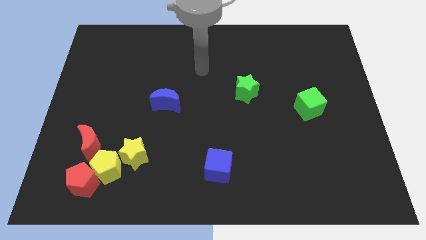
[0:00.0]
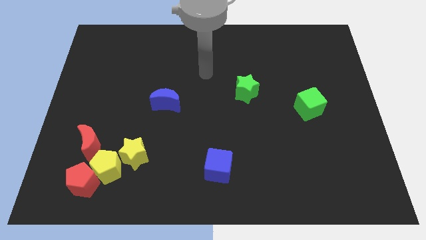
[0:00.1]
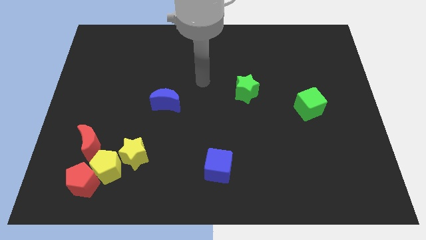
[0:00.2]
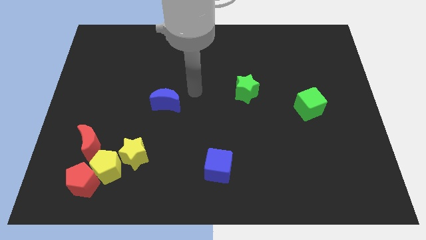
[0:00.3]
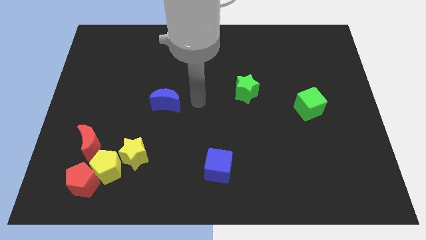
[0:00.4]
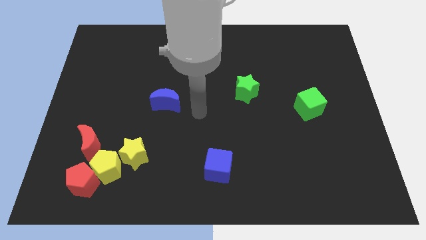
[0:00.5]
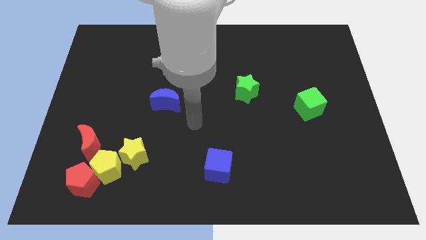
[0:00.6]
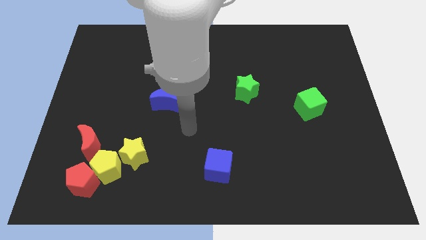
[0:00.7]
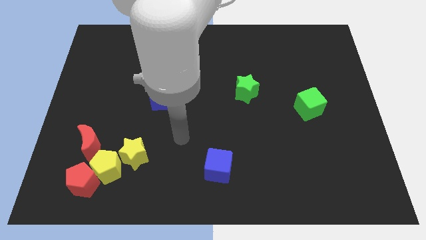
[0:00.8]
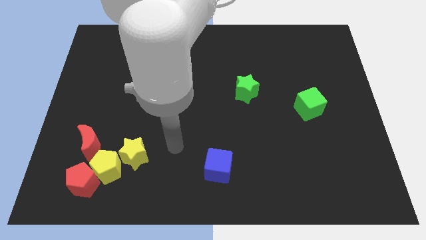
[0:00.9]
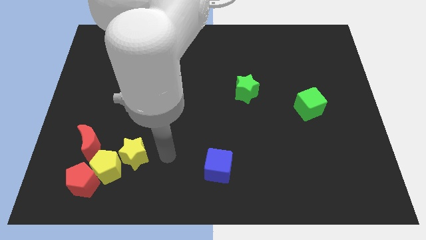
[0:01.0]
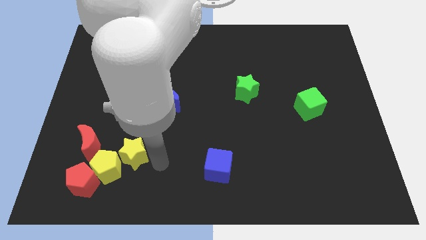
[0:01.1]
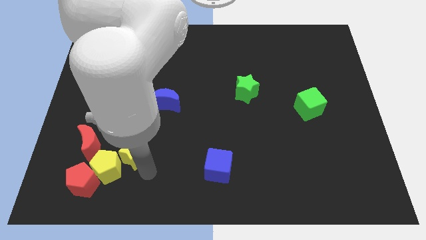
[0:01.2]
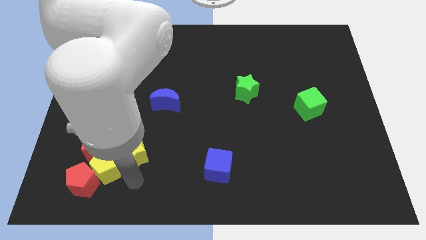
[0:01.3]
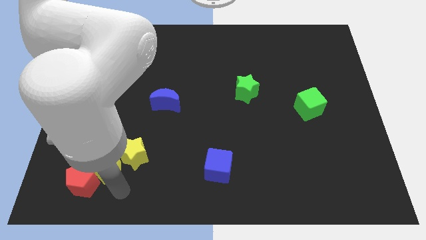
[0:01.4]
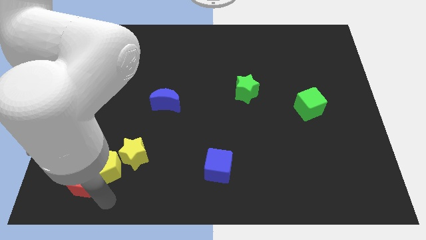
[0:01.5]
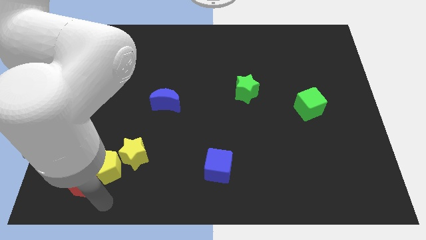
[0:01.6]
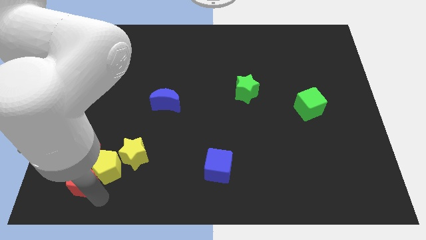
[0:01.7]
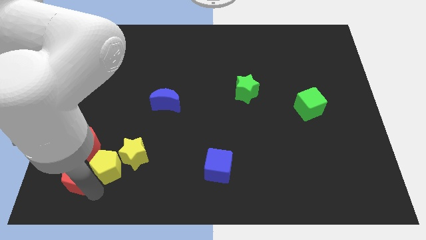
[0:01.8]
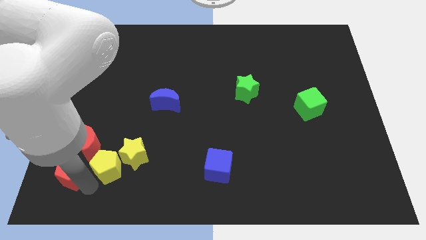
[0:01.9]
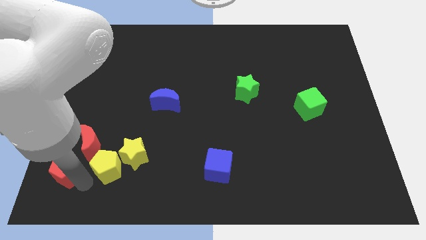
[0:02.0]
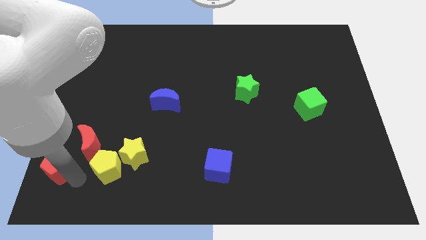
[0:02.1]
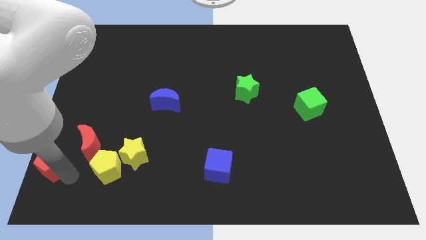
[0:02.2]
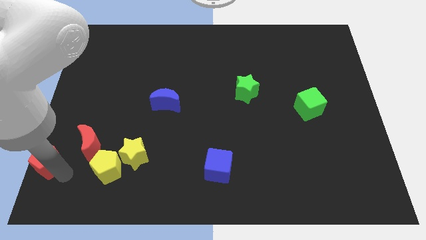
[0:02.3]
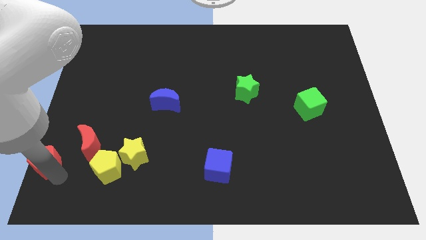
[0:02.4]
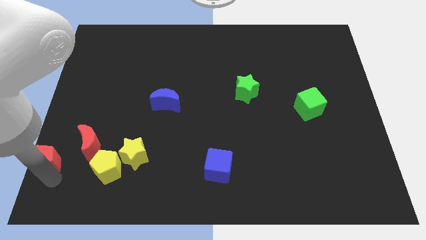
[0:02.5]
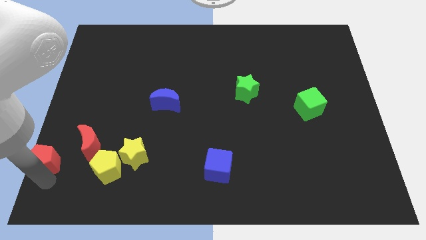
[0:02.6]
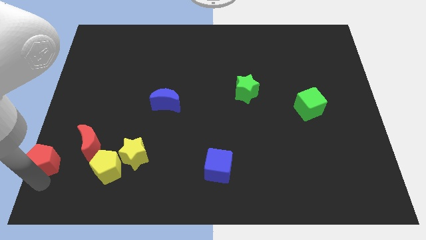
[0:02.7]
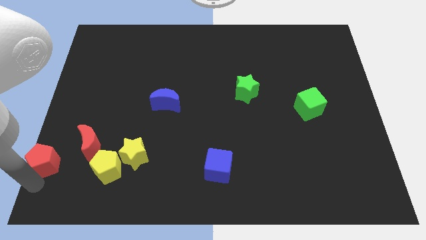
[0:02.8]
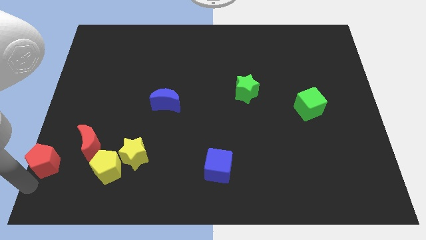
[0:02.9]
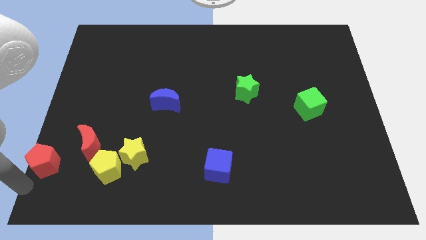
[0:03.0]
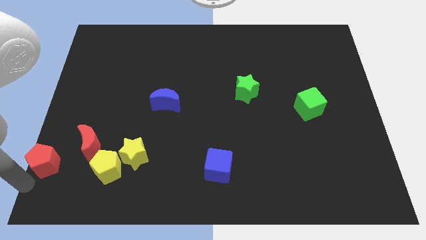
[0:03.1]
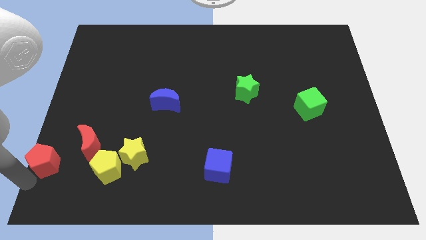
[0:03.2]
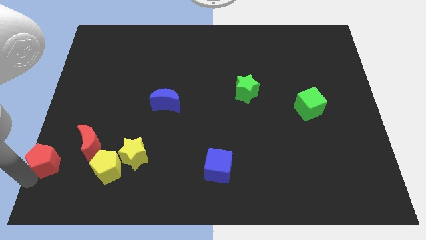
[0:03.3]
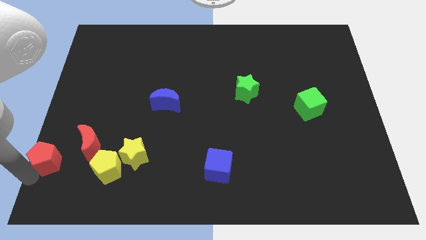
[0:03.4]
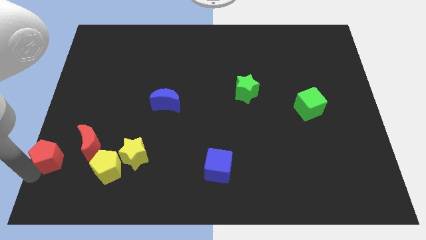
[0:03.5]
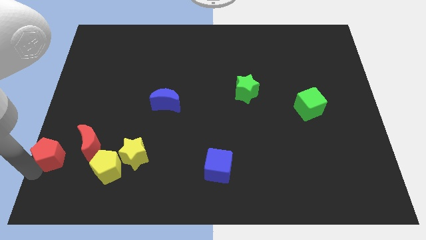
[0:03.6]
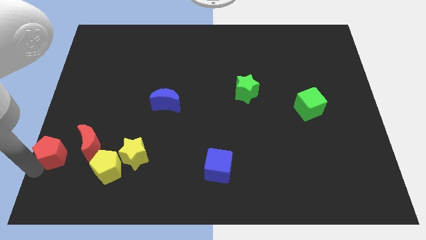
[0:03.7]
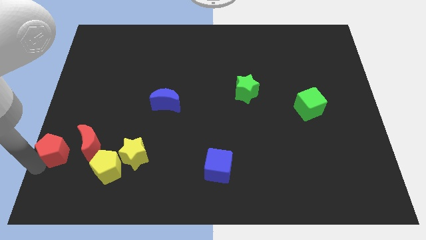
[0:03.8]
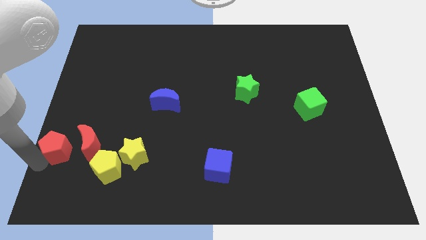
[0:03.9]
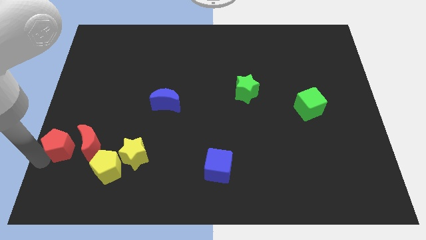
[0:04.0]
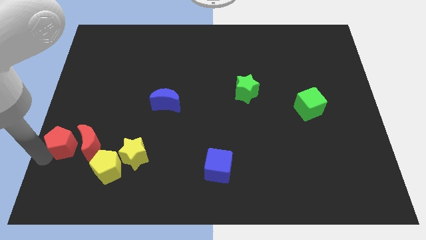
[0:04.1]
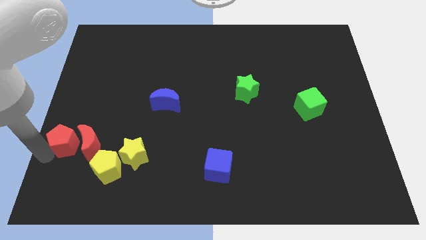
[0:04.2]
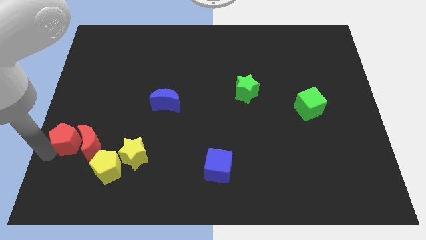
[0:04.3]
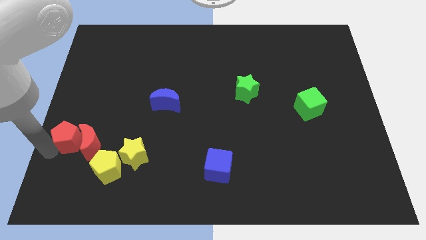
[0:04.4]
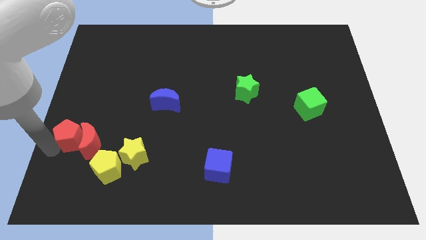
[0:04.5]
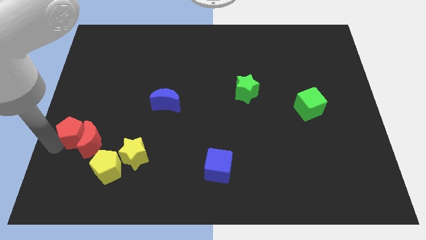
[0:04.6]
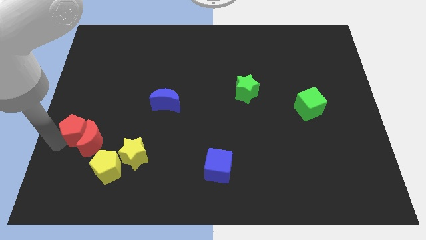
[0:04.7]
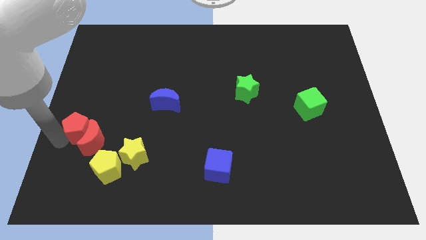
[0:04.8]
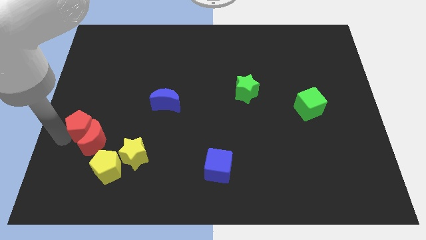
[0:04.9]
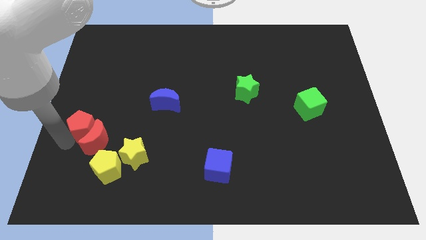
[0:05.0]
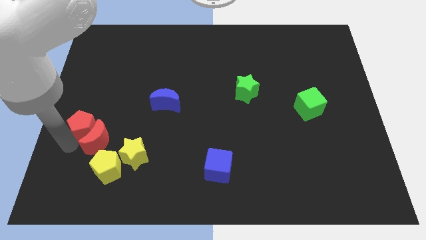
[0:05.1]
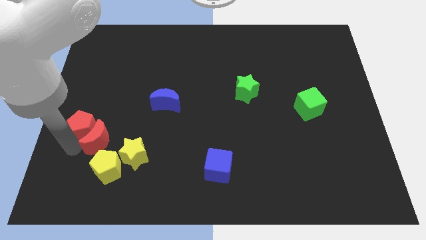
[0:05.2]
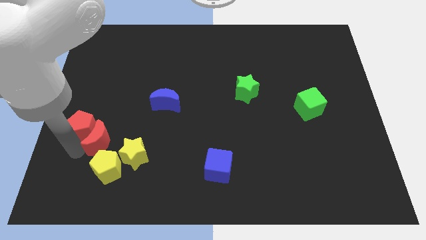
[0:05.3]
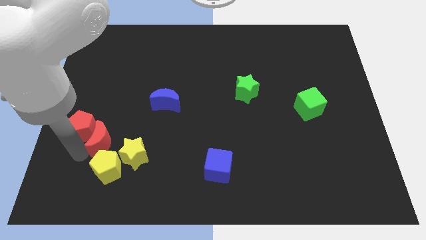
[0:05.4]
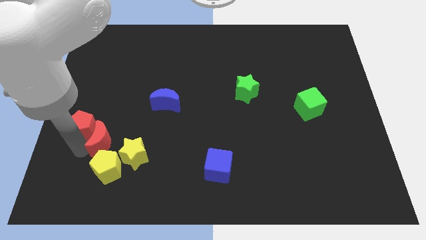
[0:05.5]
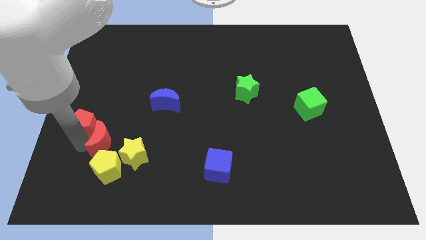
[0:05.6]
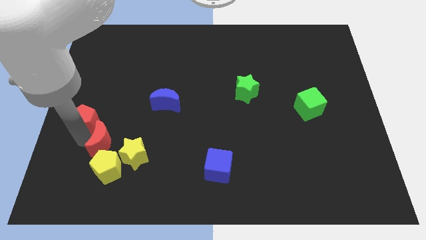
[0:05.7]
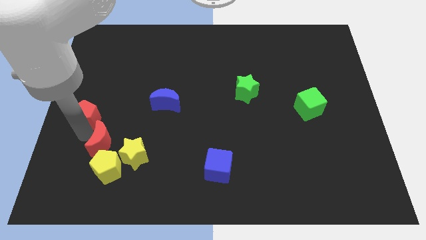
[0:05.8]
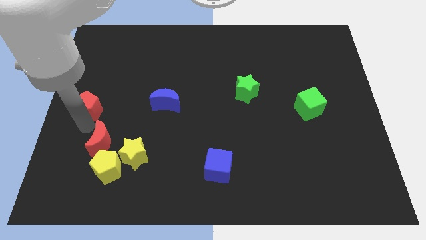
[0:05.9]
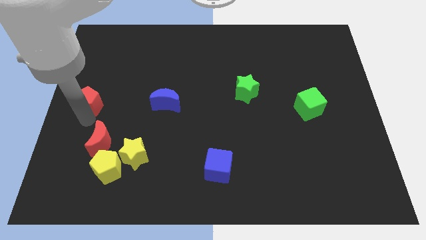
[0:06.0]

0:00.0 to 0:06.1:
move the red pentagon upwards

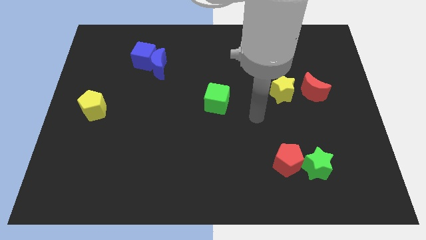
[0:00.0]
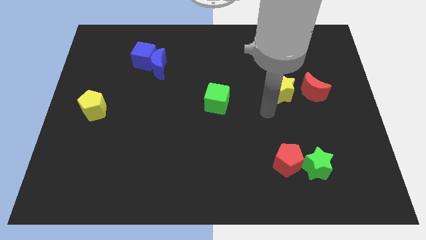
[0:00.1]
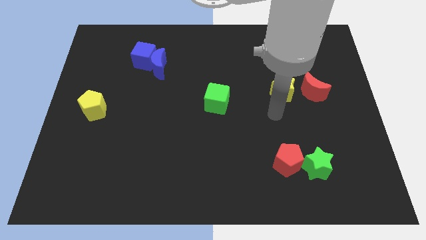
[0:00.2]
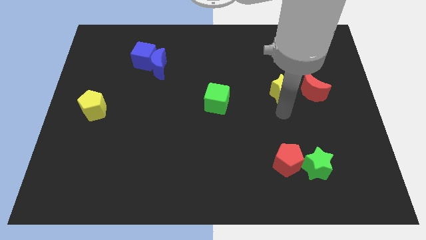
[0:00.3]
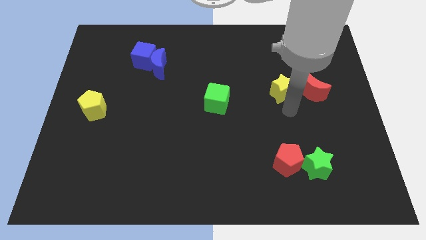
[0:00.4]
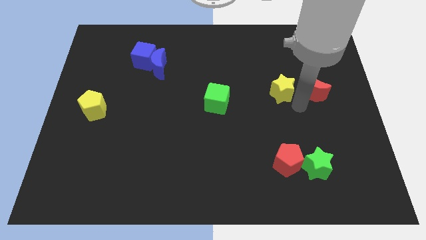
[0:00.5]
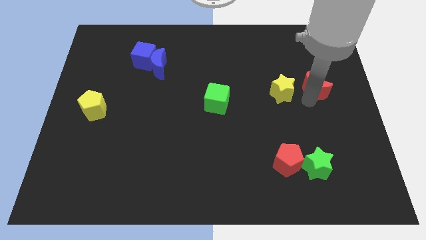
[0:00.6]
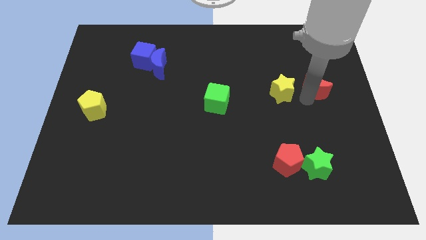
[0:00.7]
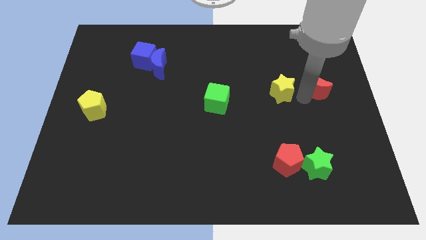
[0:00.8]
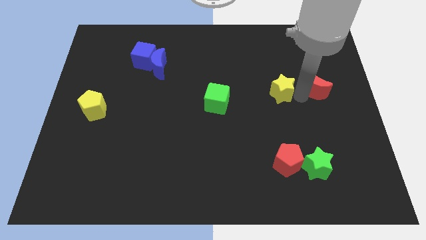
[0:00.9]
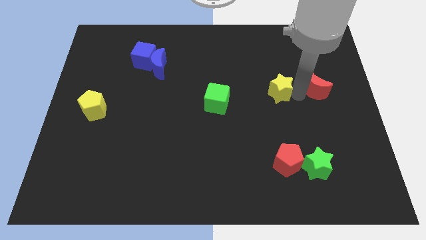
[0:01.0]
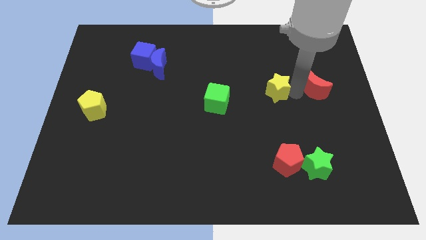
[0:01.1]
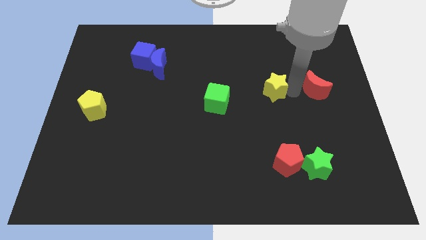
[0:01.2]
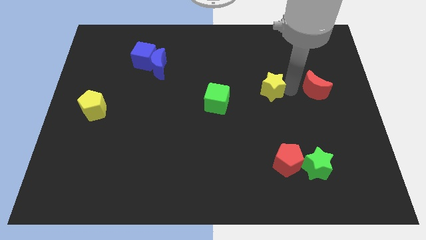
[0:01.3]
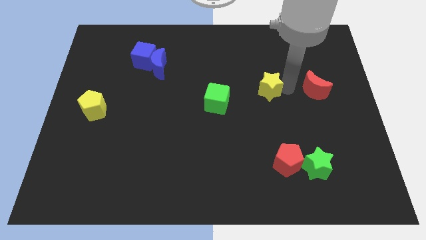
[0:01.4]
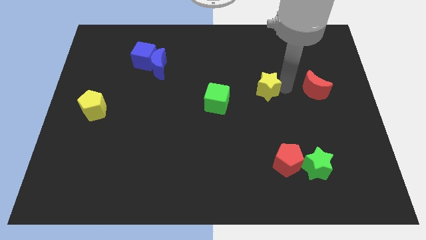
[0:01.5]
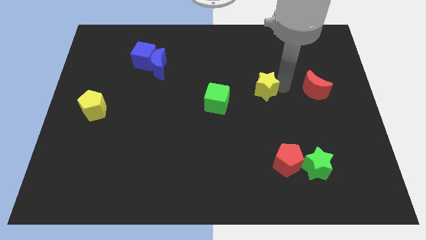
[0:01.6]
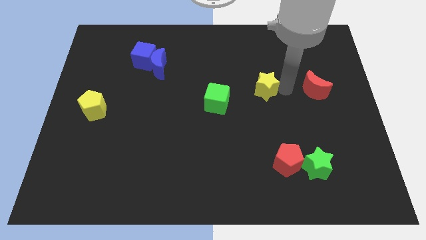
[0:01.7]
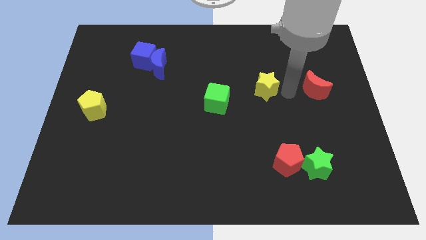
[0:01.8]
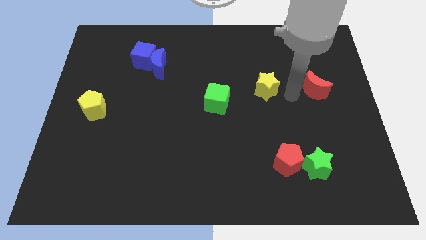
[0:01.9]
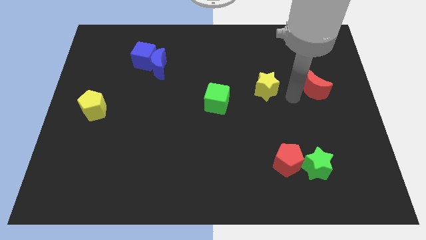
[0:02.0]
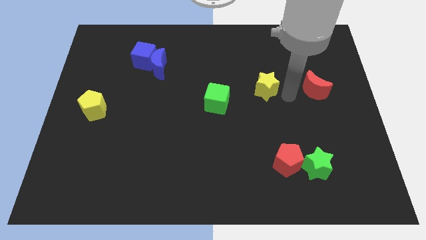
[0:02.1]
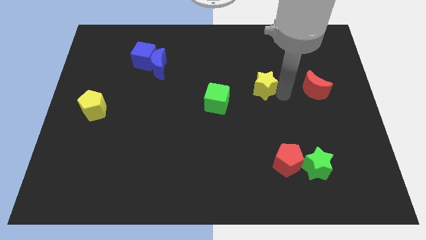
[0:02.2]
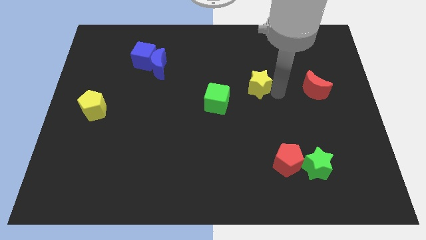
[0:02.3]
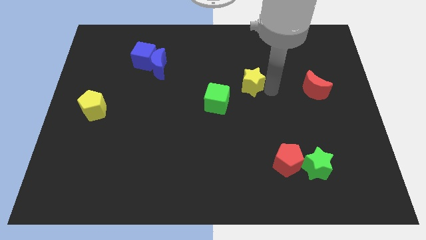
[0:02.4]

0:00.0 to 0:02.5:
slide the yellow star to the left a little
